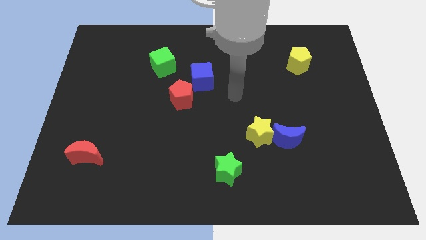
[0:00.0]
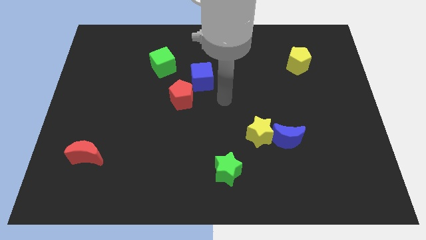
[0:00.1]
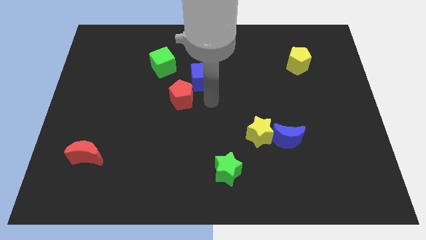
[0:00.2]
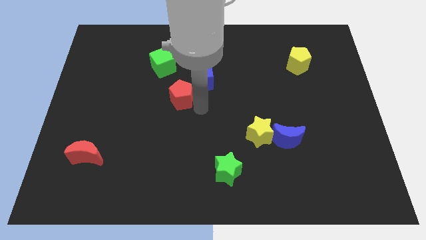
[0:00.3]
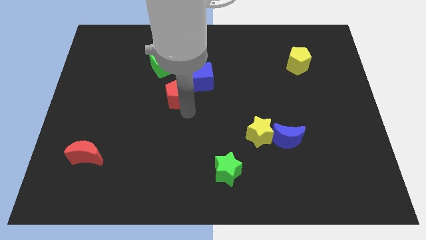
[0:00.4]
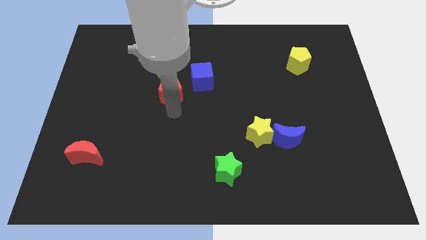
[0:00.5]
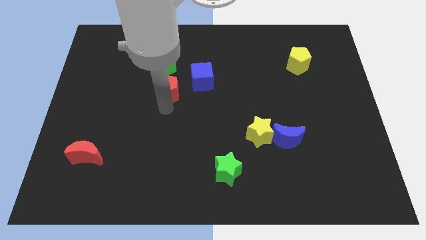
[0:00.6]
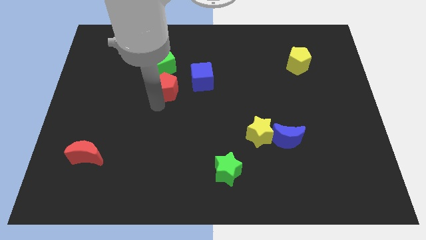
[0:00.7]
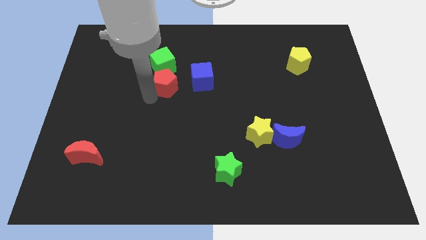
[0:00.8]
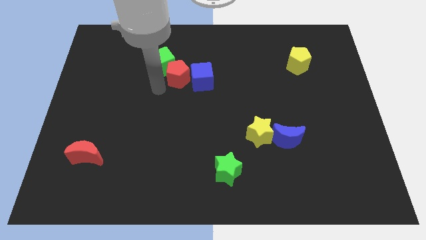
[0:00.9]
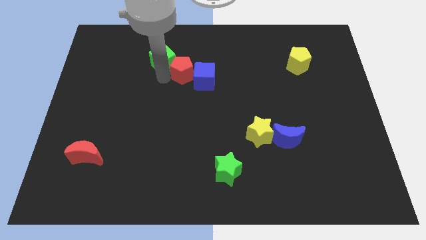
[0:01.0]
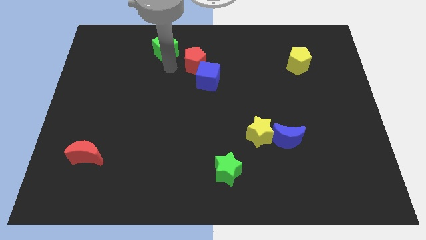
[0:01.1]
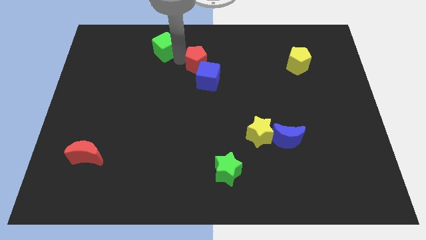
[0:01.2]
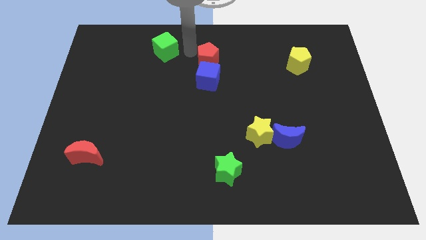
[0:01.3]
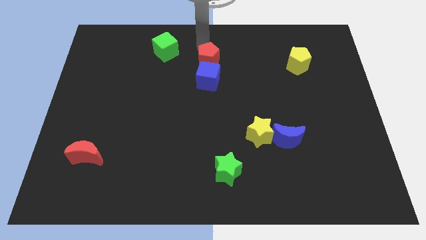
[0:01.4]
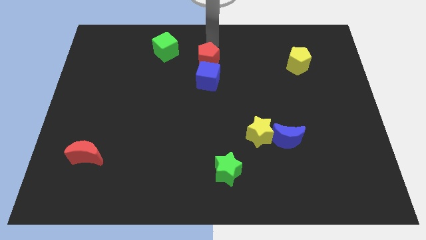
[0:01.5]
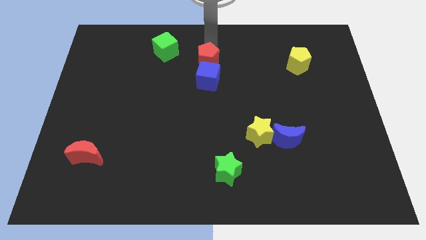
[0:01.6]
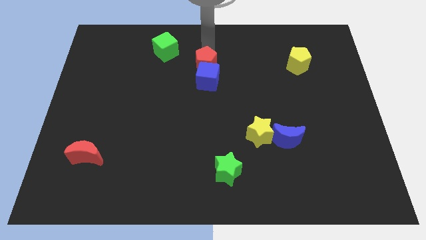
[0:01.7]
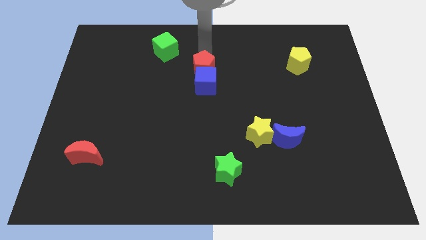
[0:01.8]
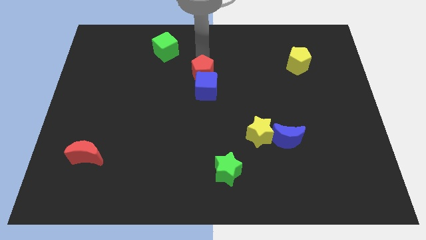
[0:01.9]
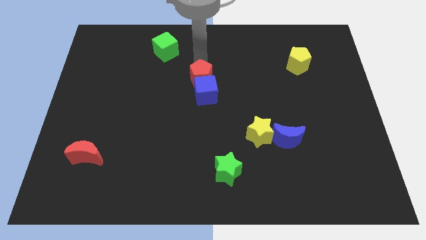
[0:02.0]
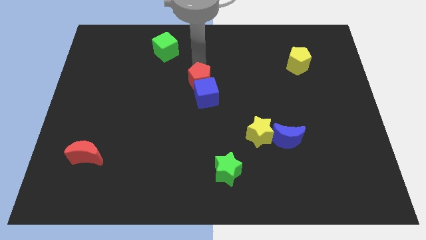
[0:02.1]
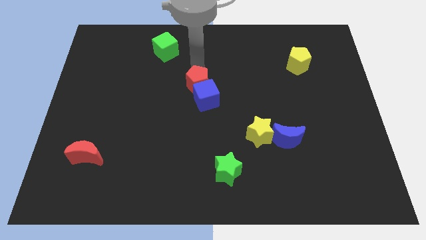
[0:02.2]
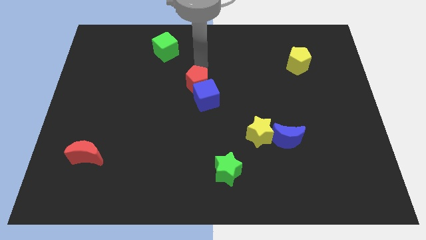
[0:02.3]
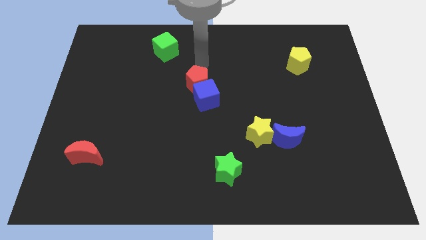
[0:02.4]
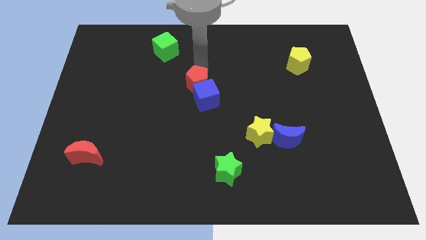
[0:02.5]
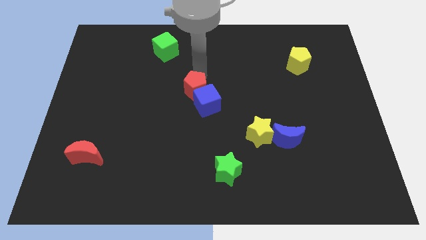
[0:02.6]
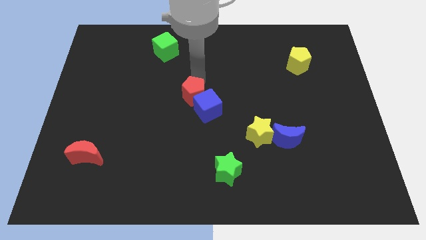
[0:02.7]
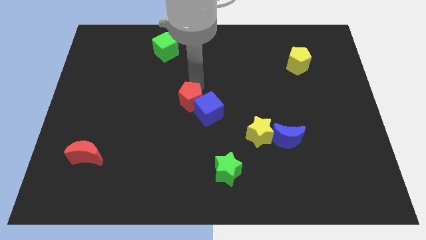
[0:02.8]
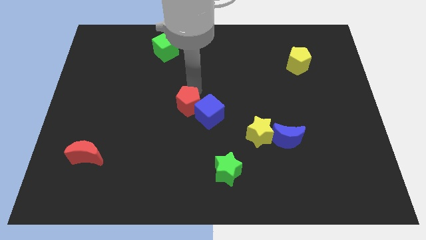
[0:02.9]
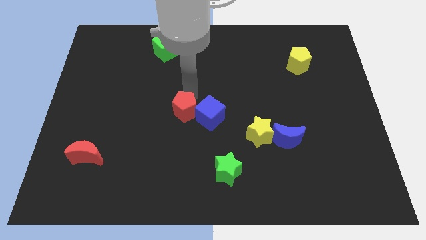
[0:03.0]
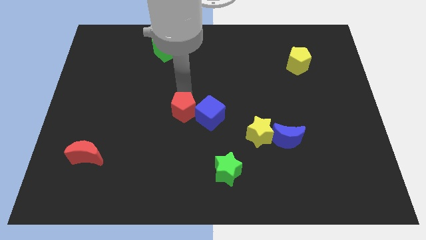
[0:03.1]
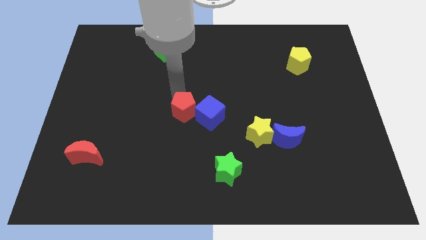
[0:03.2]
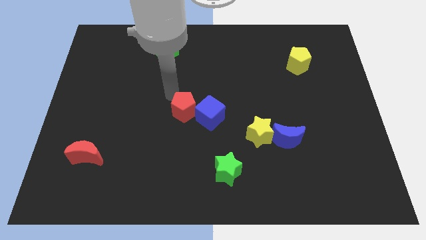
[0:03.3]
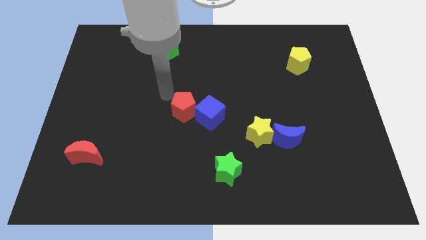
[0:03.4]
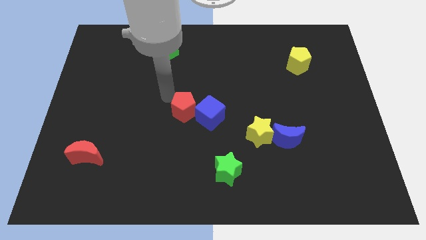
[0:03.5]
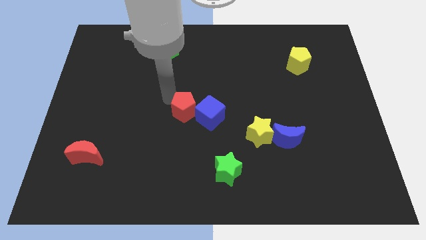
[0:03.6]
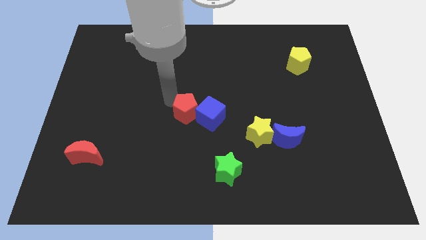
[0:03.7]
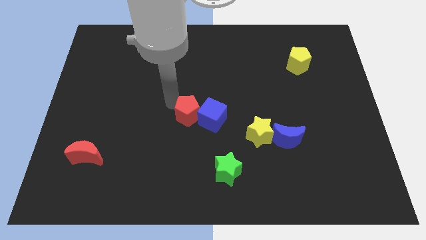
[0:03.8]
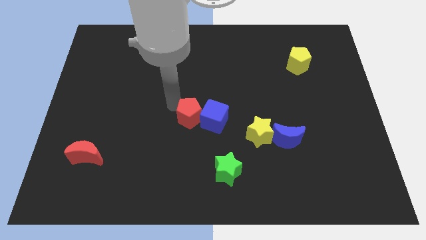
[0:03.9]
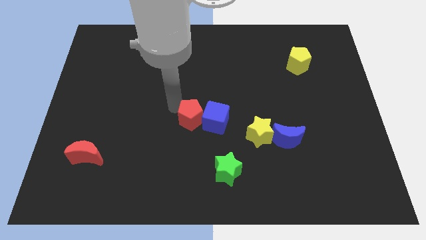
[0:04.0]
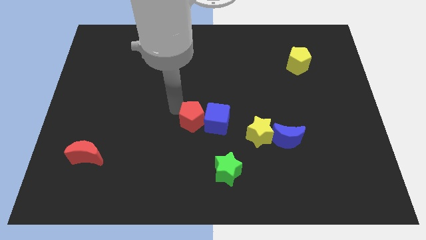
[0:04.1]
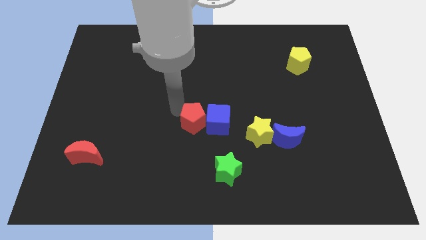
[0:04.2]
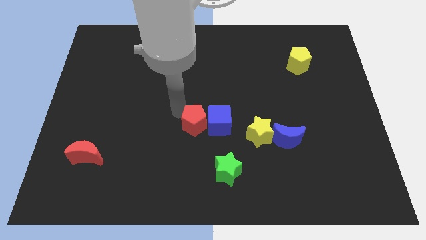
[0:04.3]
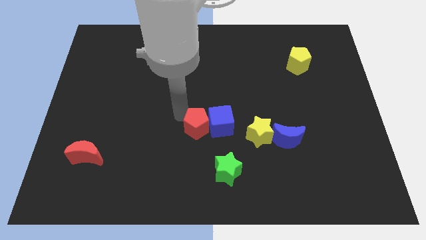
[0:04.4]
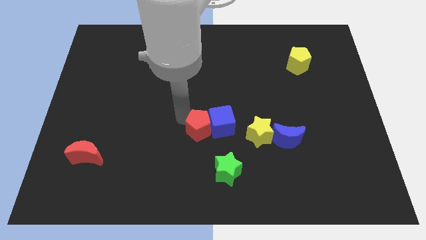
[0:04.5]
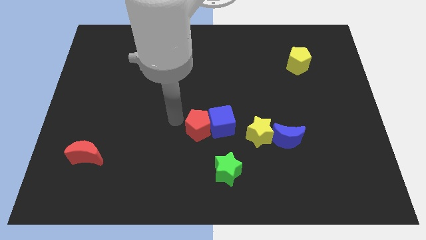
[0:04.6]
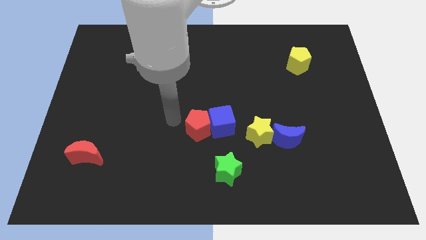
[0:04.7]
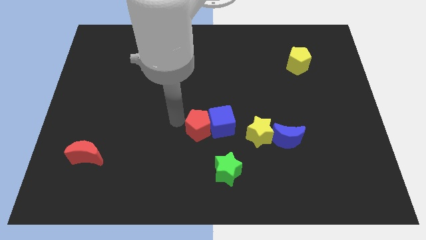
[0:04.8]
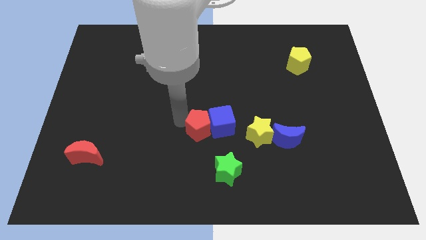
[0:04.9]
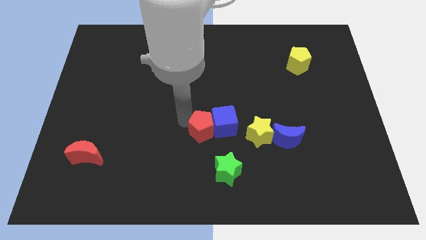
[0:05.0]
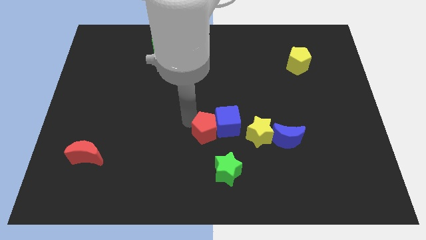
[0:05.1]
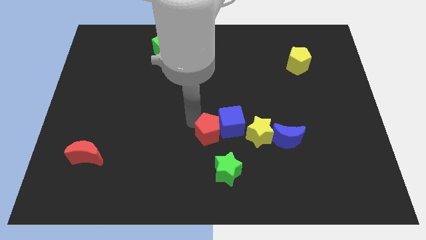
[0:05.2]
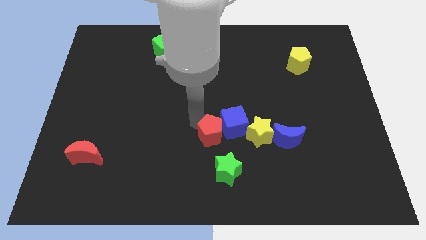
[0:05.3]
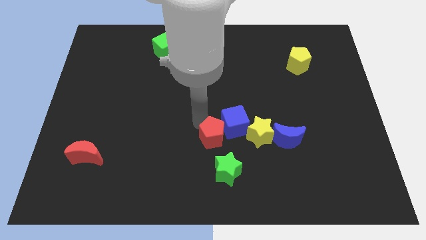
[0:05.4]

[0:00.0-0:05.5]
slide the red pentagon to the left side of the blue moon

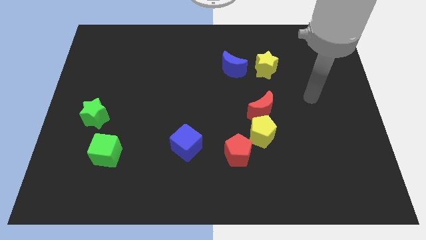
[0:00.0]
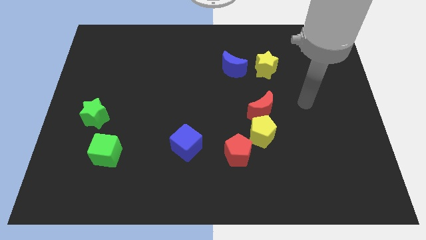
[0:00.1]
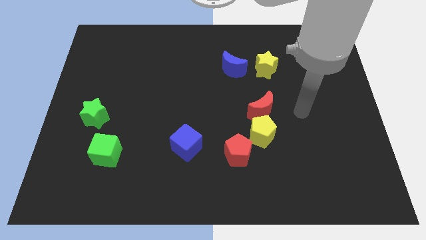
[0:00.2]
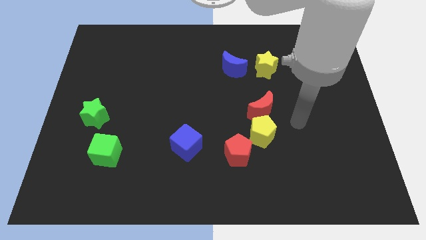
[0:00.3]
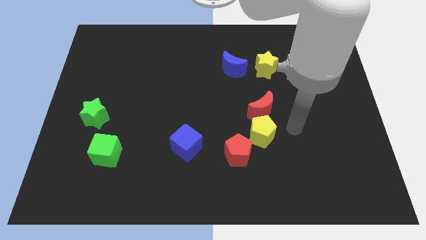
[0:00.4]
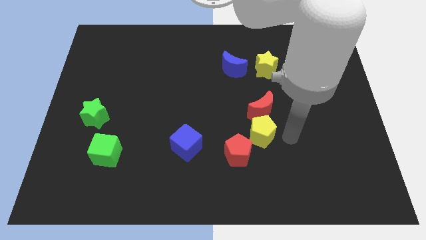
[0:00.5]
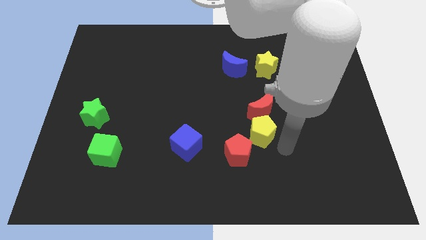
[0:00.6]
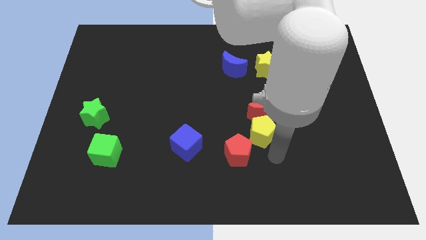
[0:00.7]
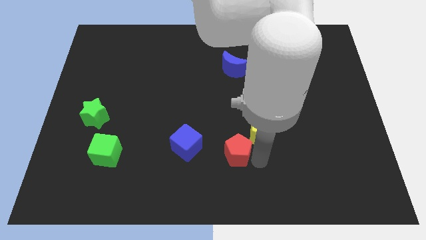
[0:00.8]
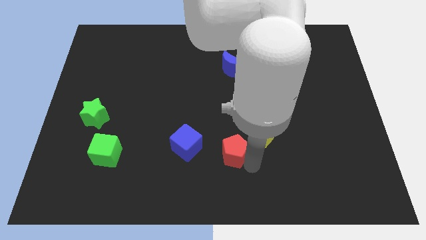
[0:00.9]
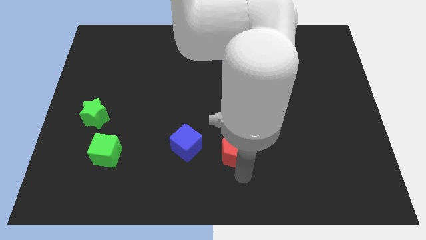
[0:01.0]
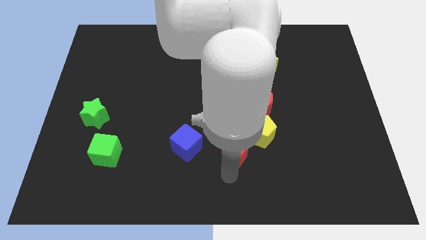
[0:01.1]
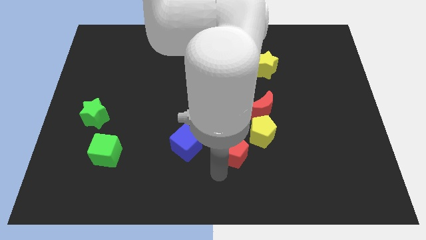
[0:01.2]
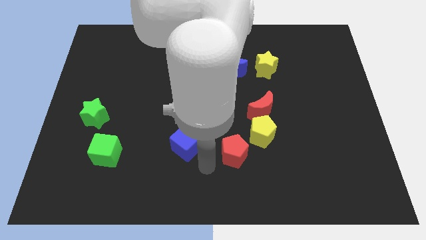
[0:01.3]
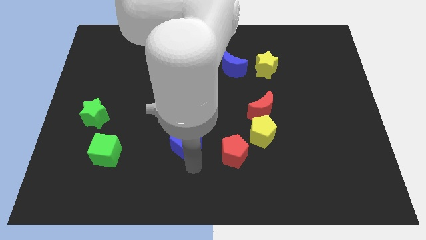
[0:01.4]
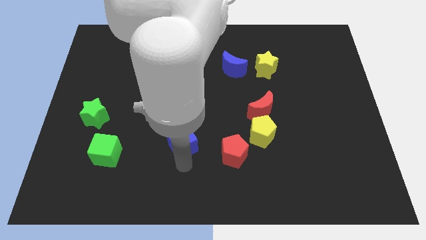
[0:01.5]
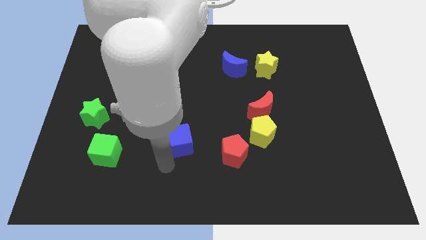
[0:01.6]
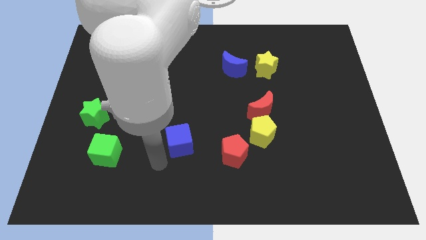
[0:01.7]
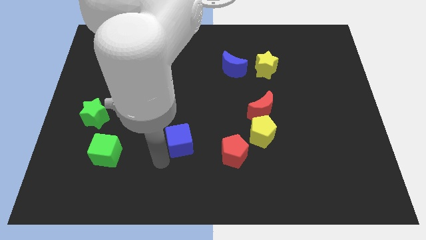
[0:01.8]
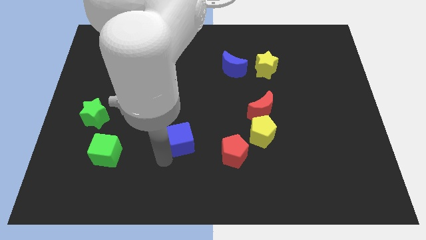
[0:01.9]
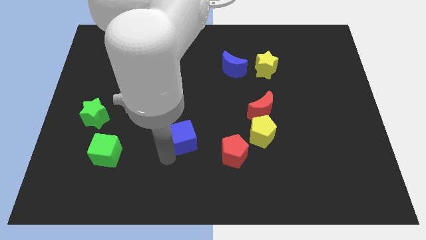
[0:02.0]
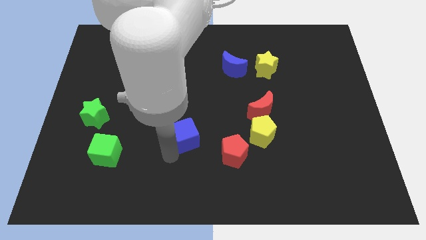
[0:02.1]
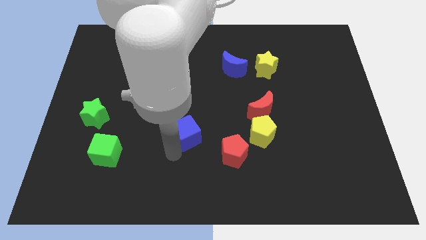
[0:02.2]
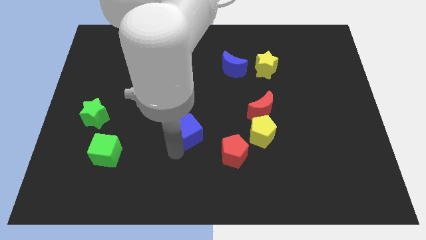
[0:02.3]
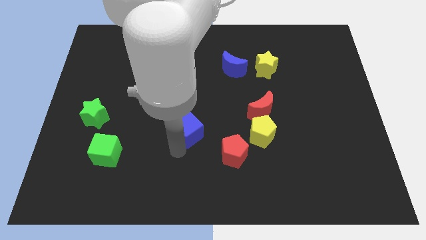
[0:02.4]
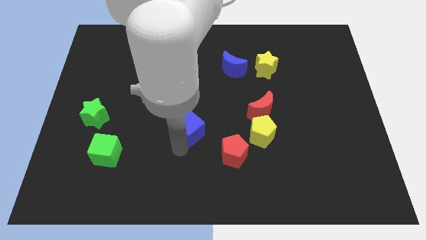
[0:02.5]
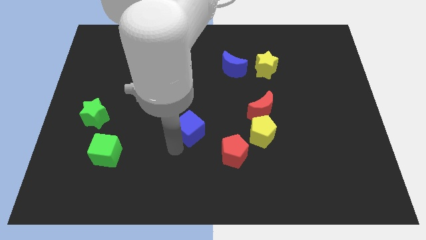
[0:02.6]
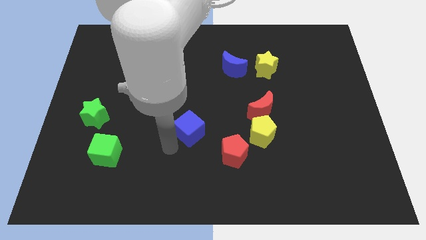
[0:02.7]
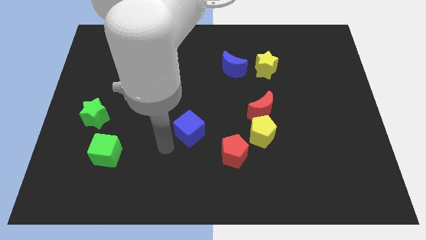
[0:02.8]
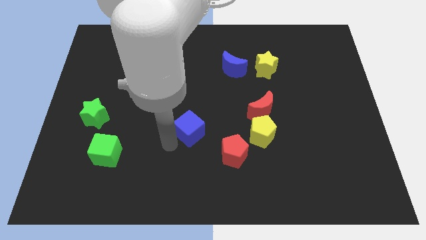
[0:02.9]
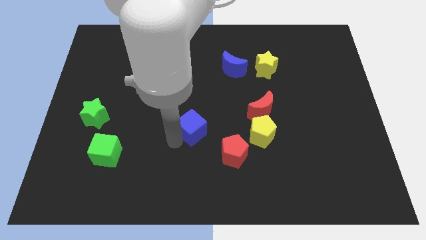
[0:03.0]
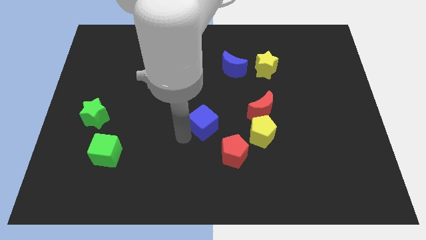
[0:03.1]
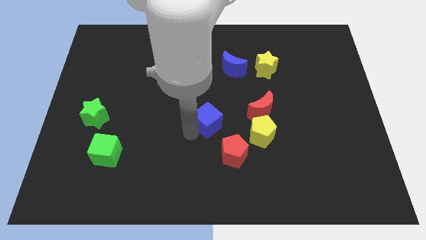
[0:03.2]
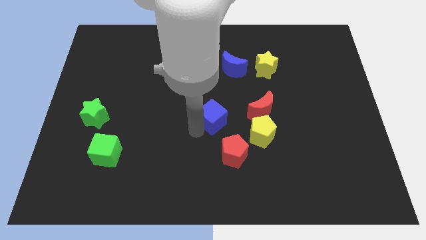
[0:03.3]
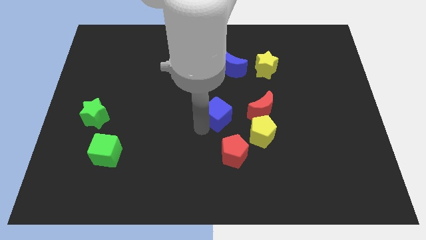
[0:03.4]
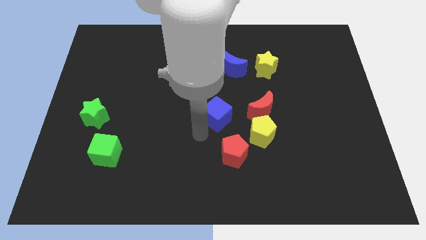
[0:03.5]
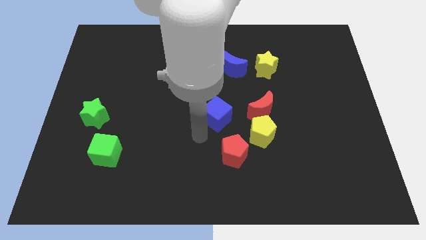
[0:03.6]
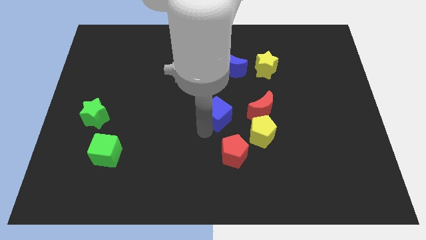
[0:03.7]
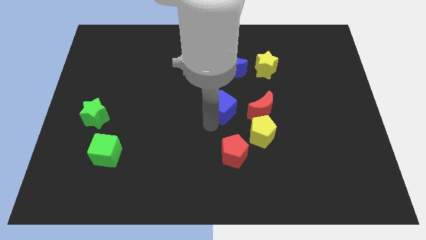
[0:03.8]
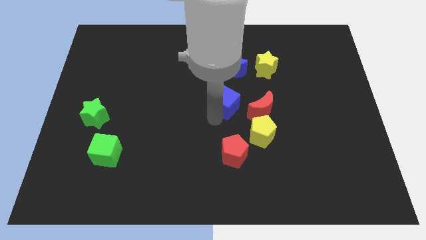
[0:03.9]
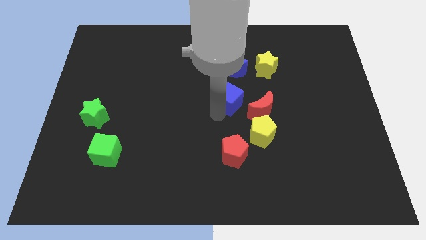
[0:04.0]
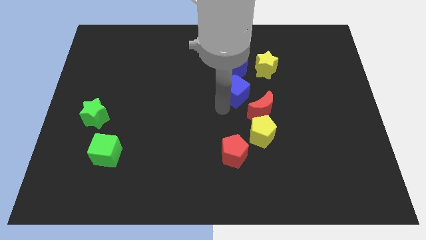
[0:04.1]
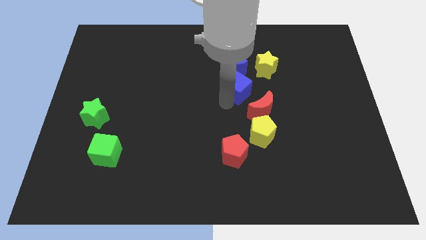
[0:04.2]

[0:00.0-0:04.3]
move the blue cube diagonally down and to the right of the blue moon
